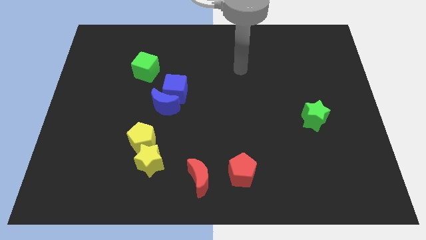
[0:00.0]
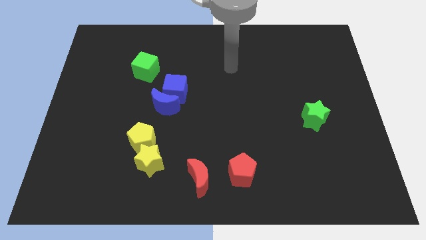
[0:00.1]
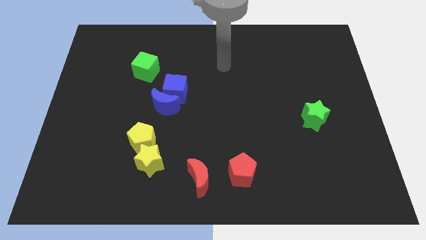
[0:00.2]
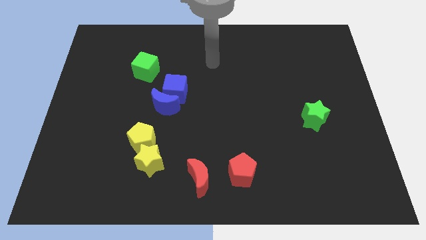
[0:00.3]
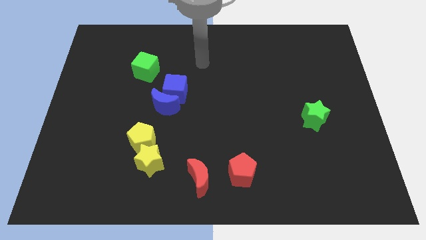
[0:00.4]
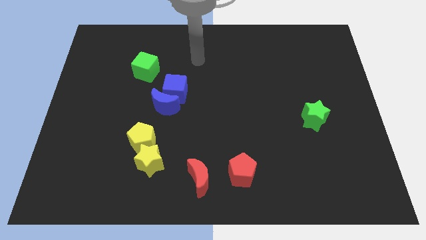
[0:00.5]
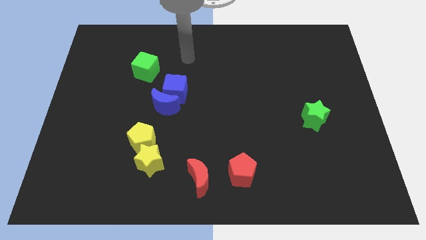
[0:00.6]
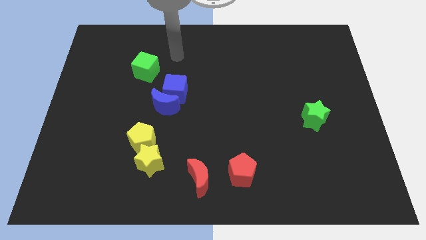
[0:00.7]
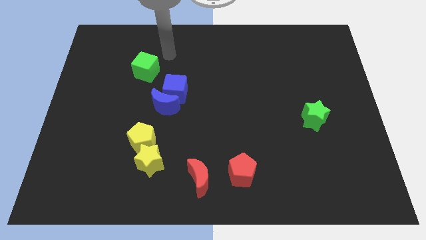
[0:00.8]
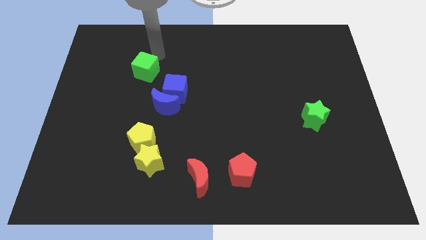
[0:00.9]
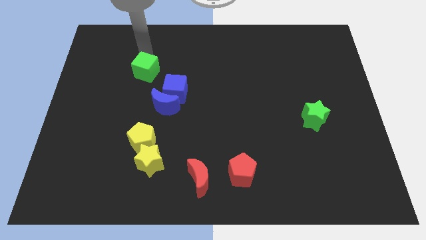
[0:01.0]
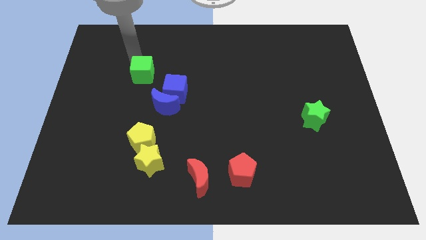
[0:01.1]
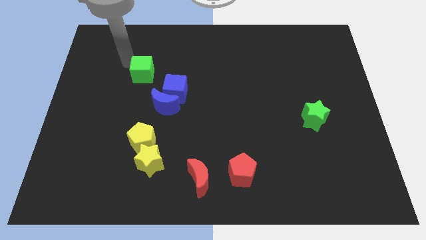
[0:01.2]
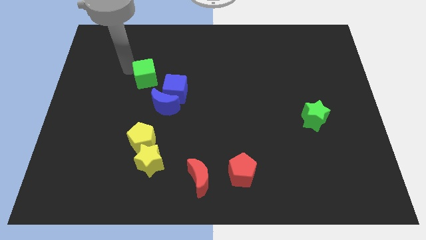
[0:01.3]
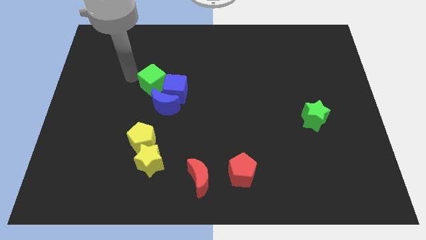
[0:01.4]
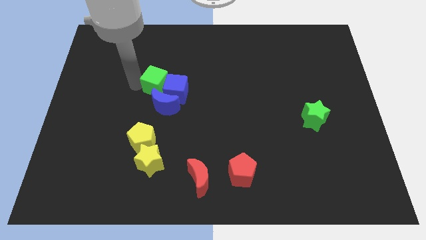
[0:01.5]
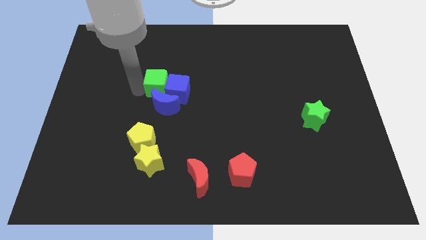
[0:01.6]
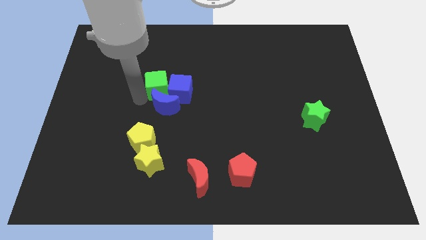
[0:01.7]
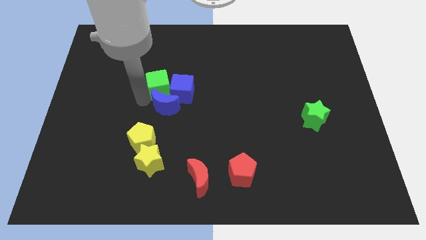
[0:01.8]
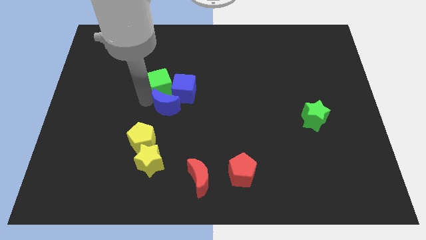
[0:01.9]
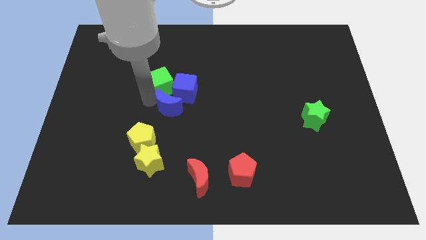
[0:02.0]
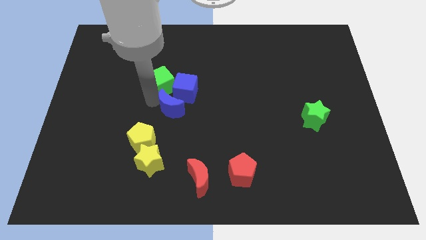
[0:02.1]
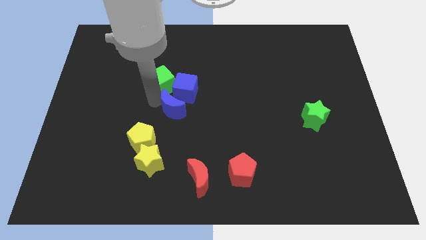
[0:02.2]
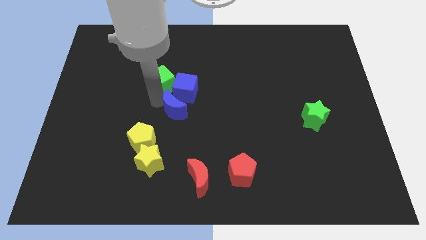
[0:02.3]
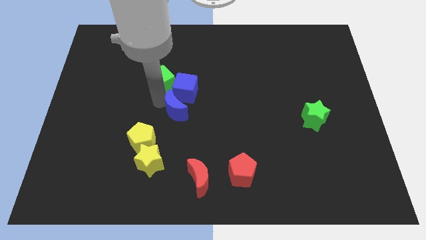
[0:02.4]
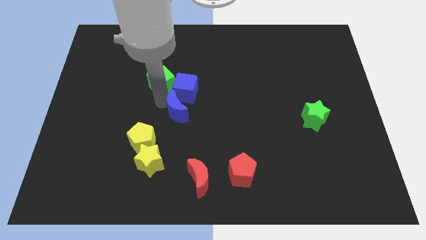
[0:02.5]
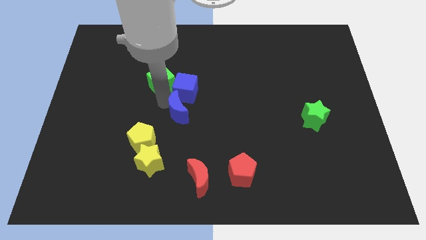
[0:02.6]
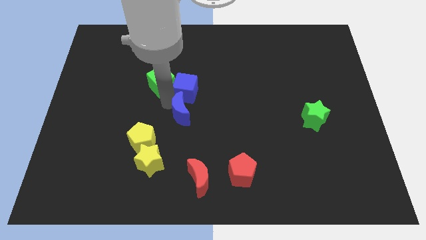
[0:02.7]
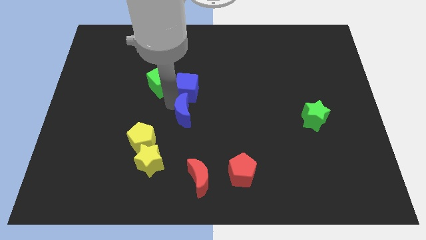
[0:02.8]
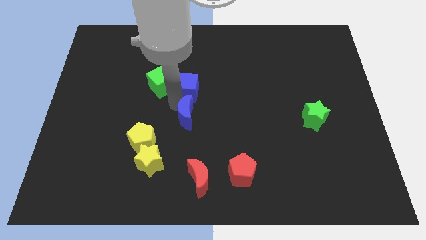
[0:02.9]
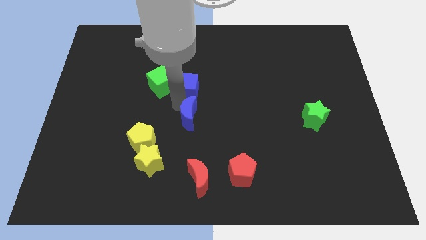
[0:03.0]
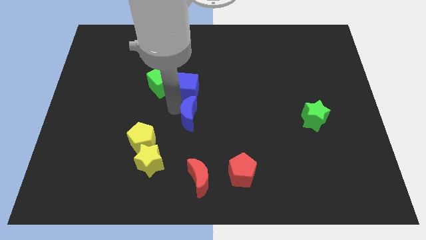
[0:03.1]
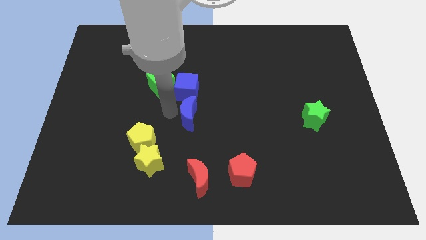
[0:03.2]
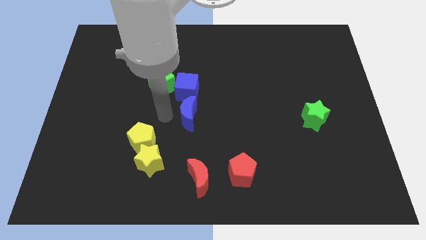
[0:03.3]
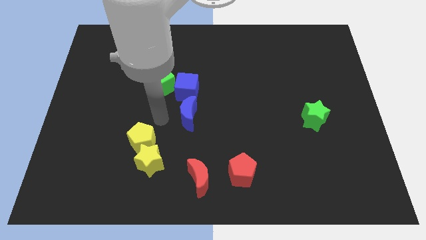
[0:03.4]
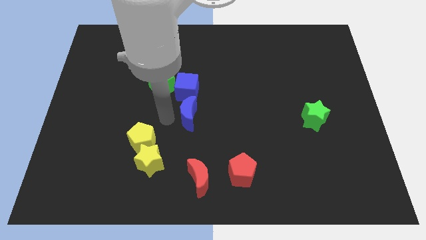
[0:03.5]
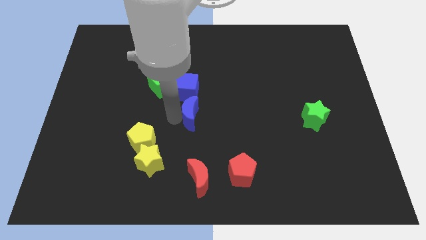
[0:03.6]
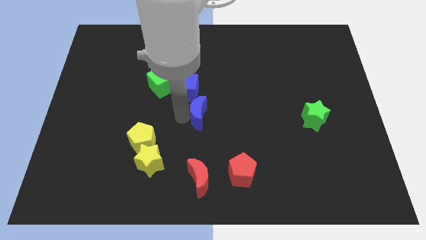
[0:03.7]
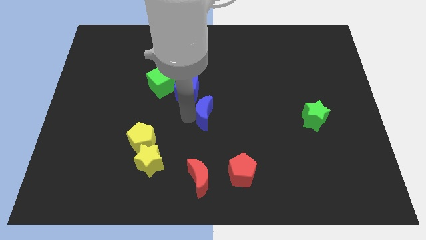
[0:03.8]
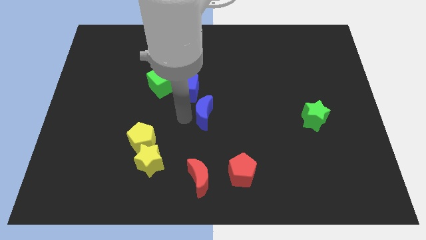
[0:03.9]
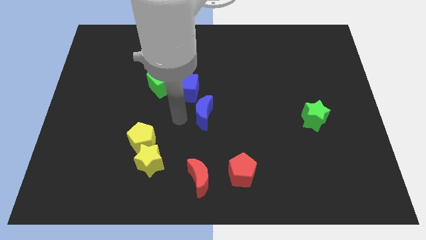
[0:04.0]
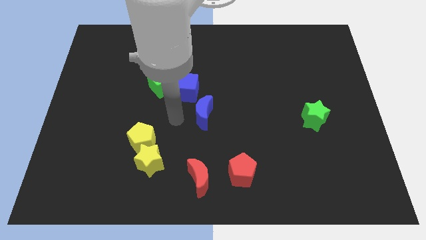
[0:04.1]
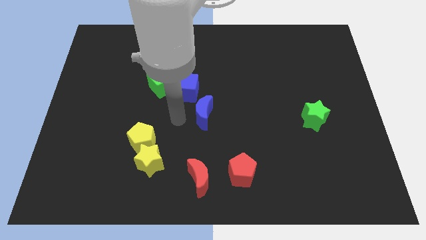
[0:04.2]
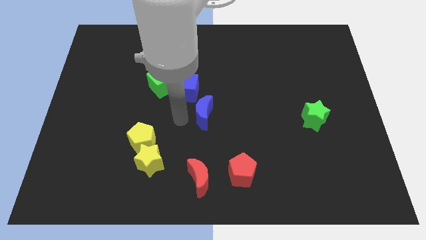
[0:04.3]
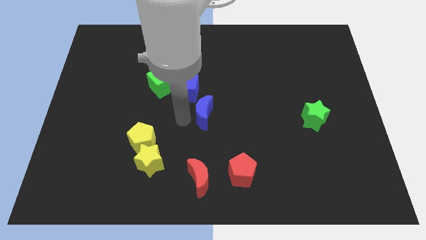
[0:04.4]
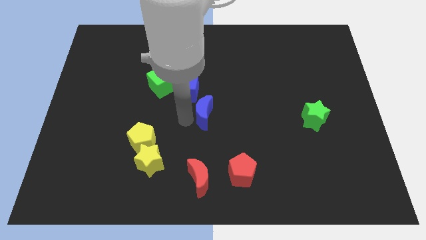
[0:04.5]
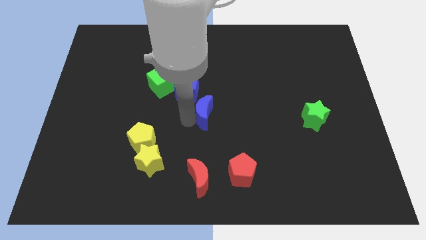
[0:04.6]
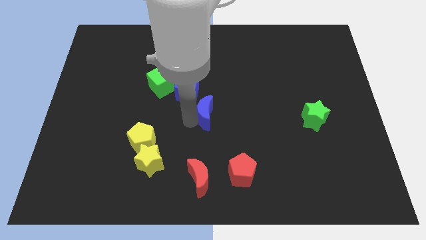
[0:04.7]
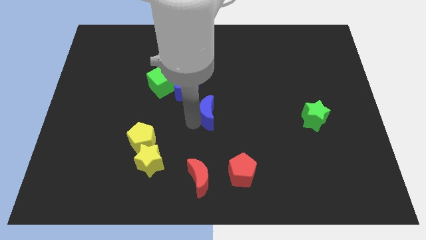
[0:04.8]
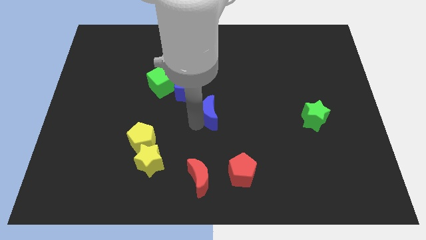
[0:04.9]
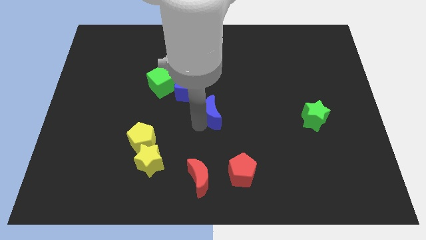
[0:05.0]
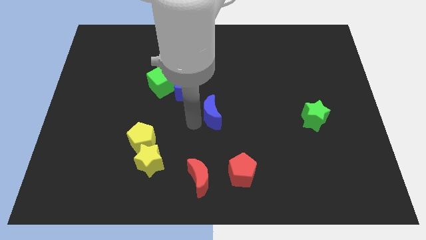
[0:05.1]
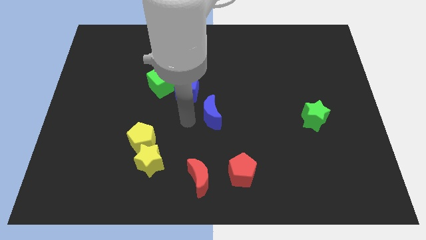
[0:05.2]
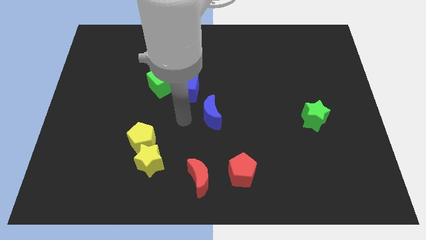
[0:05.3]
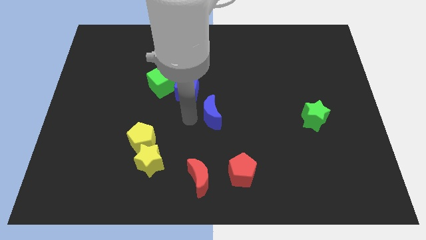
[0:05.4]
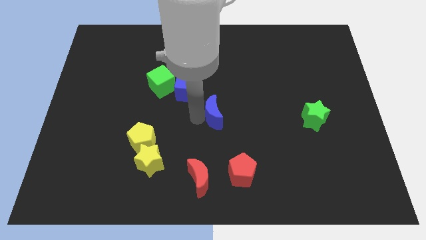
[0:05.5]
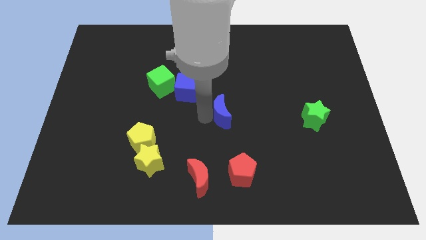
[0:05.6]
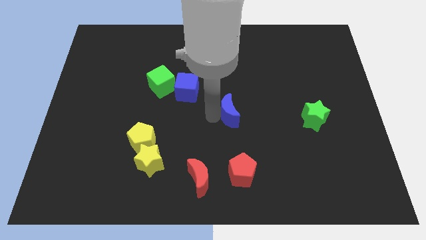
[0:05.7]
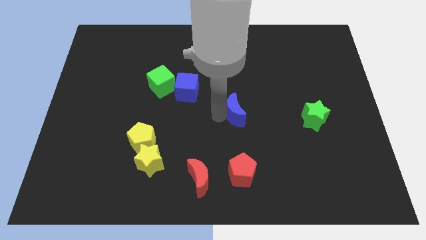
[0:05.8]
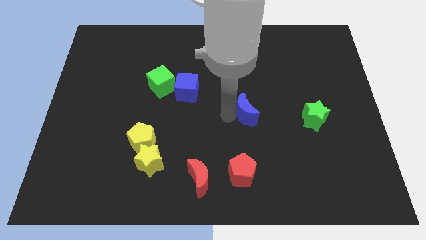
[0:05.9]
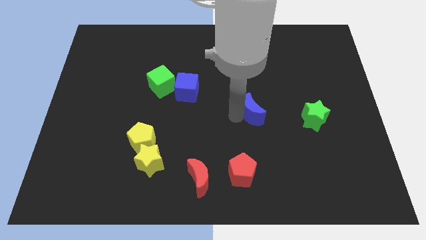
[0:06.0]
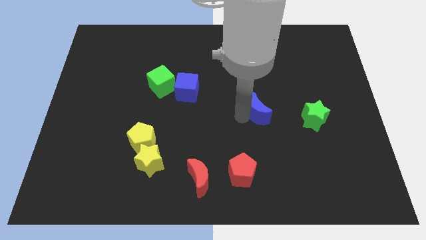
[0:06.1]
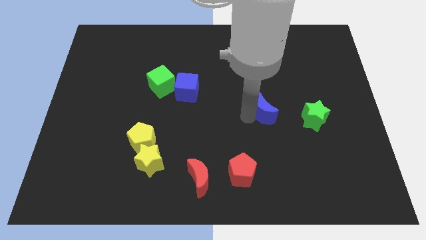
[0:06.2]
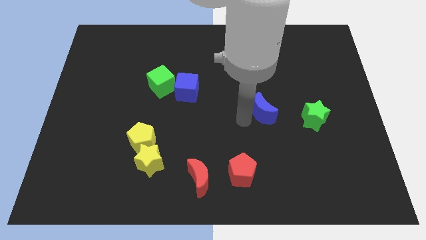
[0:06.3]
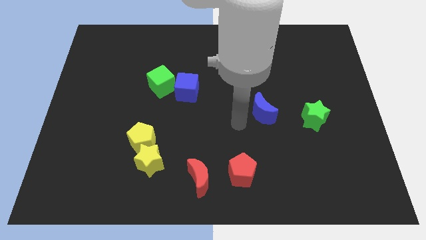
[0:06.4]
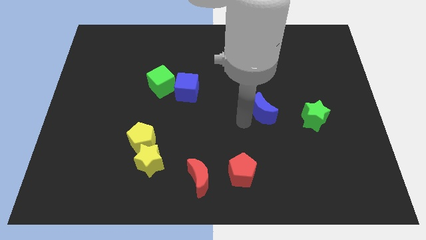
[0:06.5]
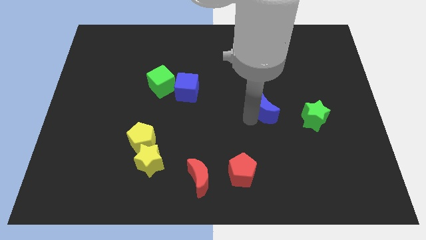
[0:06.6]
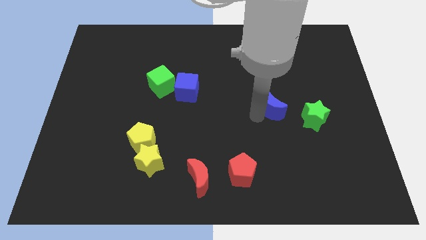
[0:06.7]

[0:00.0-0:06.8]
move the blue moon to the top left of the green star

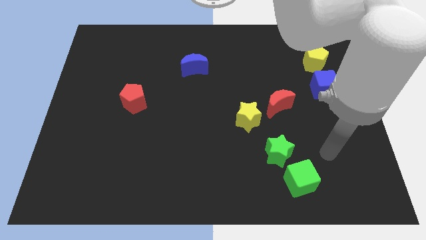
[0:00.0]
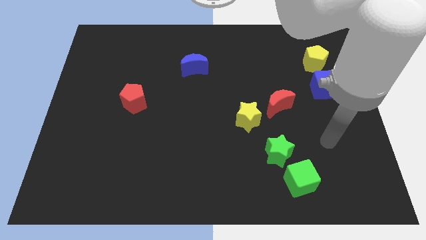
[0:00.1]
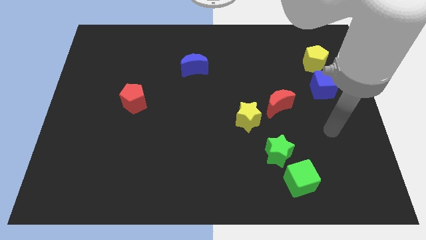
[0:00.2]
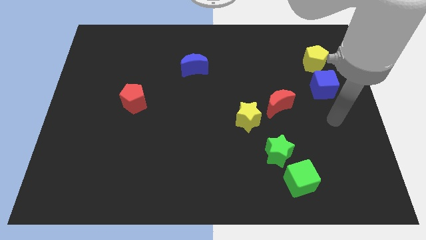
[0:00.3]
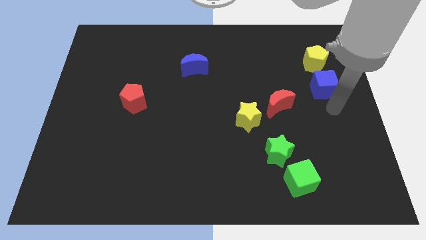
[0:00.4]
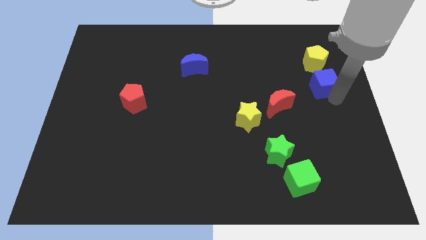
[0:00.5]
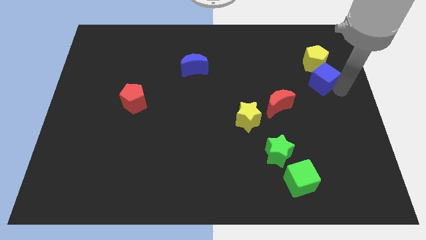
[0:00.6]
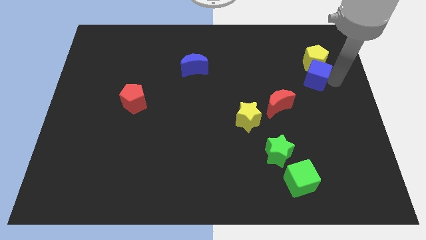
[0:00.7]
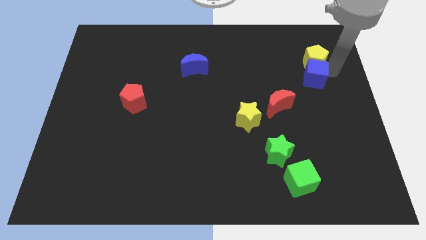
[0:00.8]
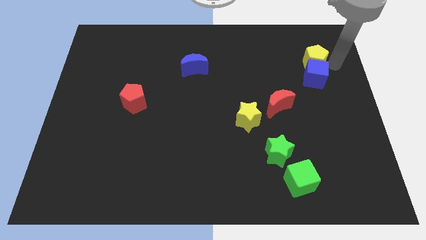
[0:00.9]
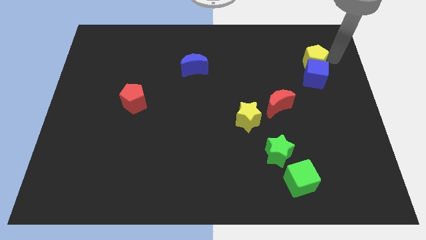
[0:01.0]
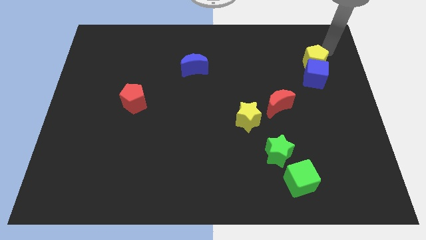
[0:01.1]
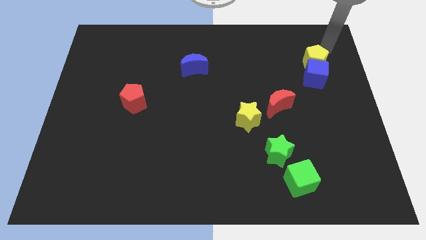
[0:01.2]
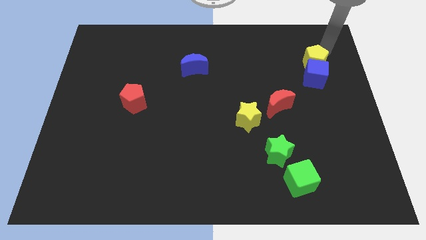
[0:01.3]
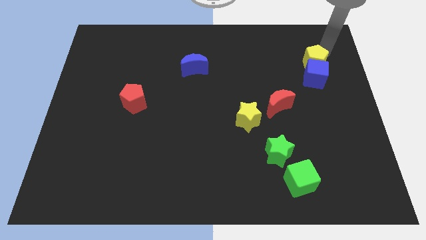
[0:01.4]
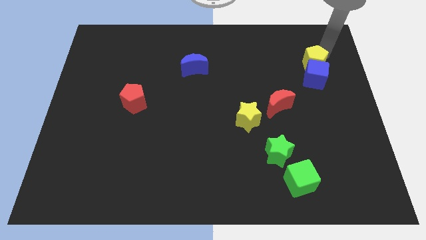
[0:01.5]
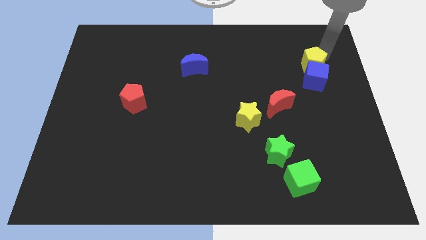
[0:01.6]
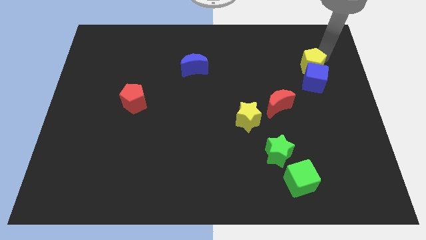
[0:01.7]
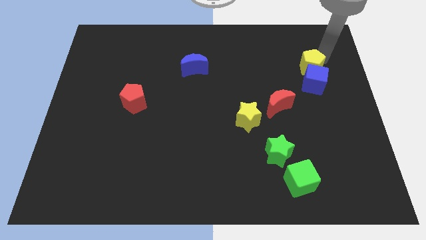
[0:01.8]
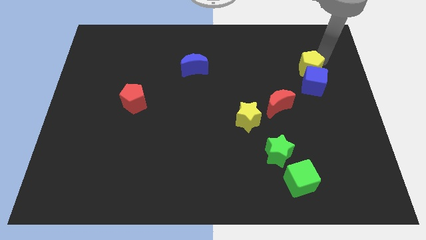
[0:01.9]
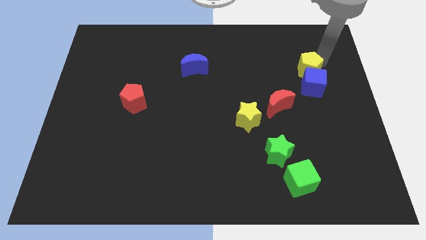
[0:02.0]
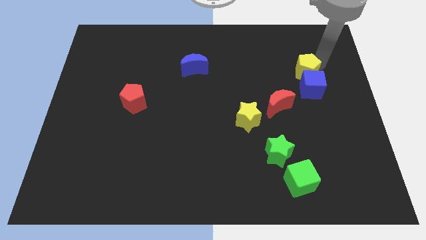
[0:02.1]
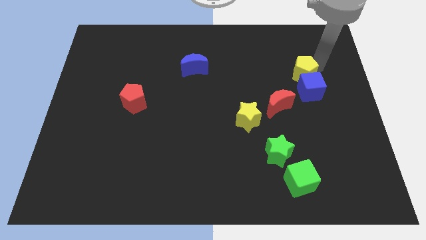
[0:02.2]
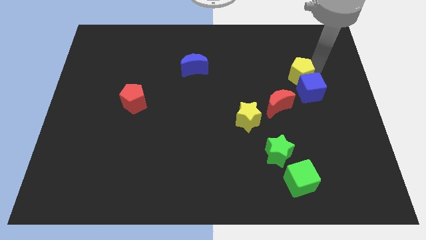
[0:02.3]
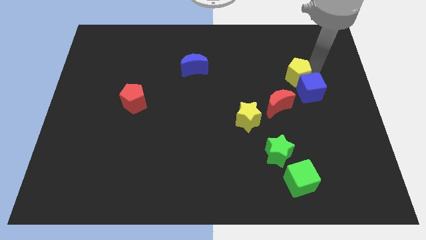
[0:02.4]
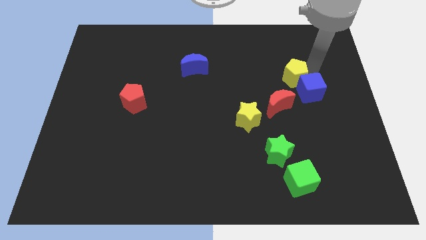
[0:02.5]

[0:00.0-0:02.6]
put the yellow pentagon just left of the blue cube
